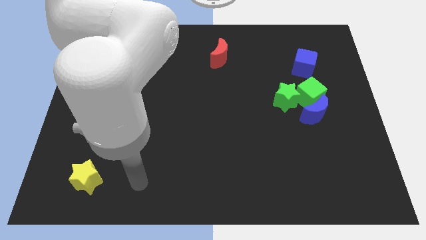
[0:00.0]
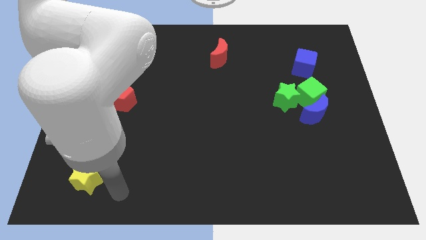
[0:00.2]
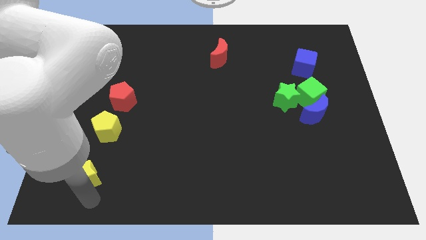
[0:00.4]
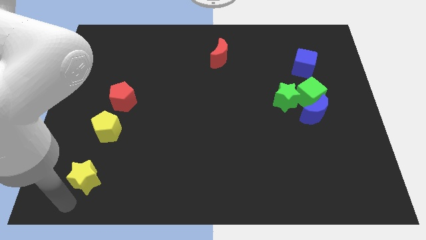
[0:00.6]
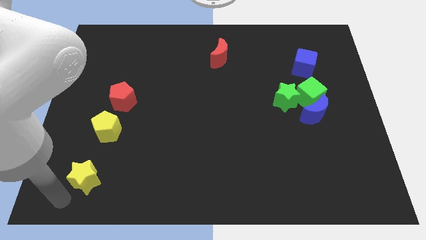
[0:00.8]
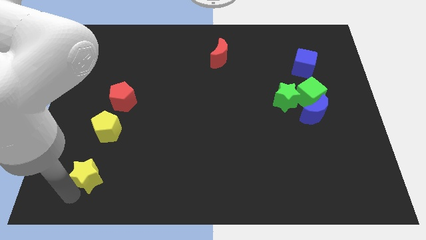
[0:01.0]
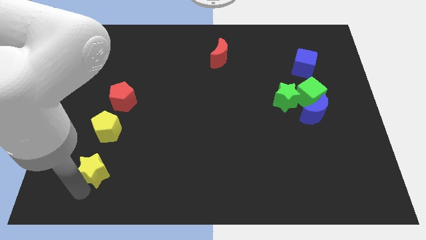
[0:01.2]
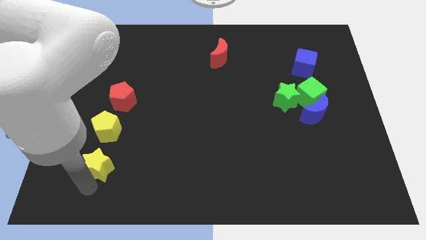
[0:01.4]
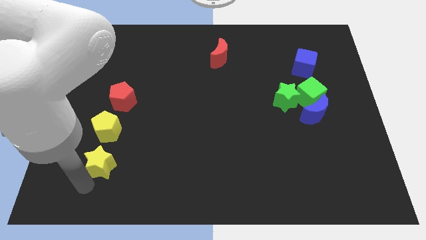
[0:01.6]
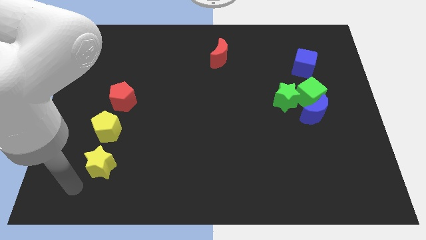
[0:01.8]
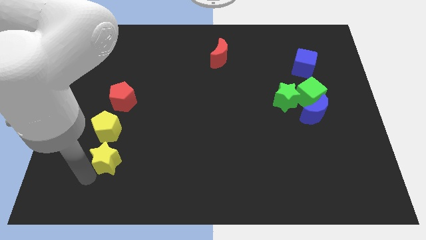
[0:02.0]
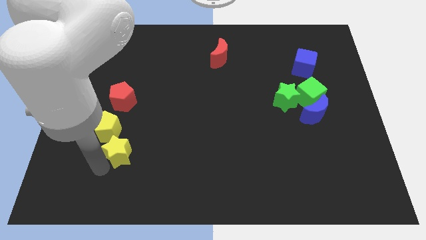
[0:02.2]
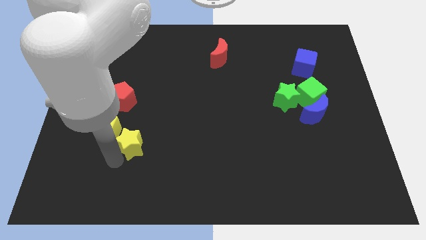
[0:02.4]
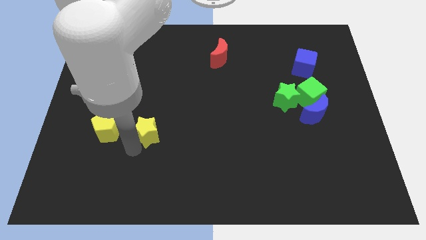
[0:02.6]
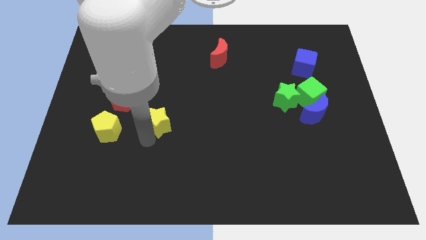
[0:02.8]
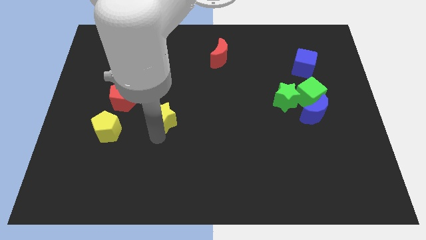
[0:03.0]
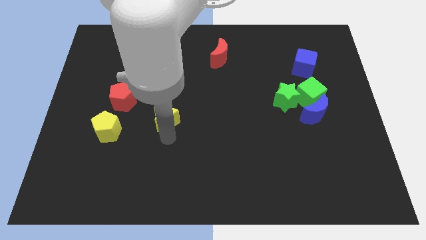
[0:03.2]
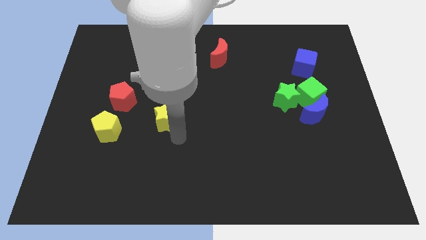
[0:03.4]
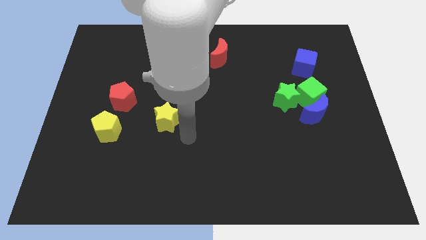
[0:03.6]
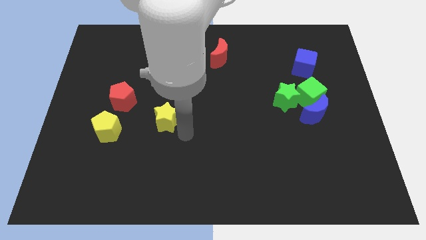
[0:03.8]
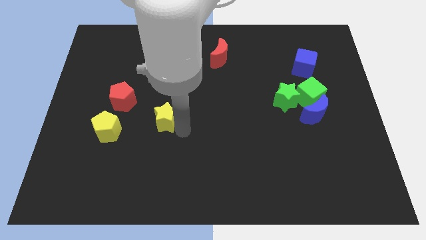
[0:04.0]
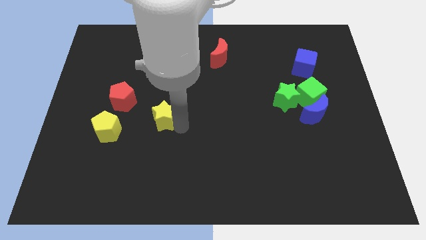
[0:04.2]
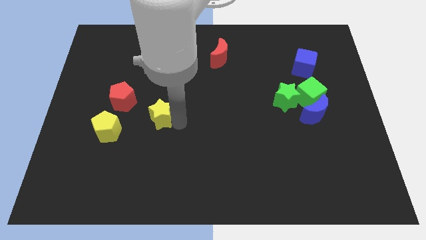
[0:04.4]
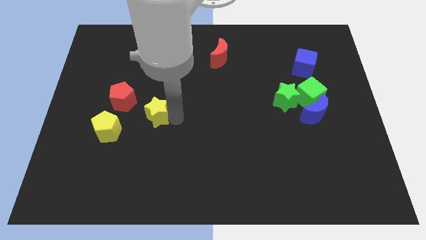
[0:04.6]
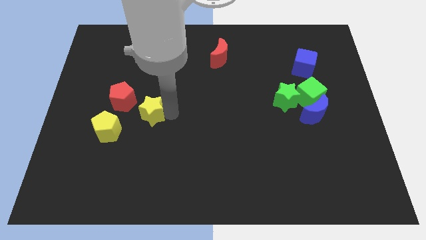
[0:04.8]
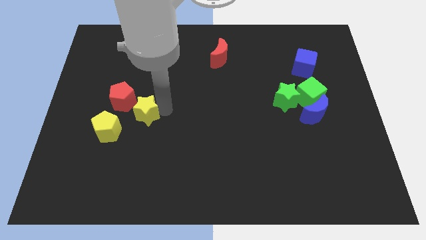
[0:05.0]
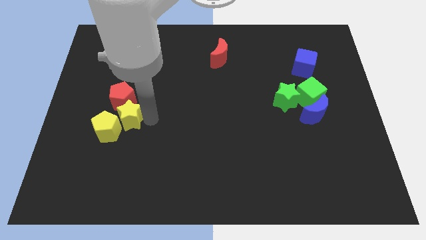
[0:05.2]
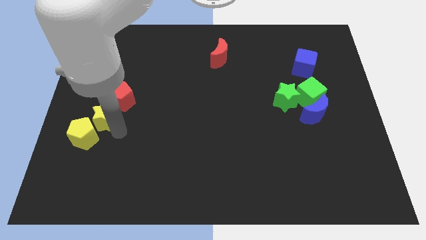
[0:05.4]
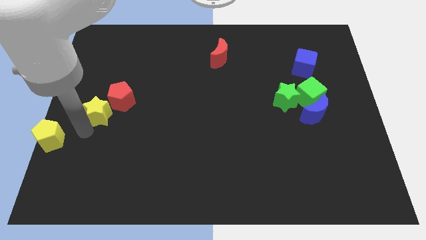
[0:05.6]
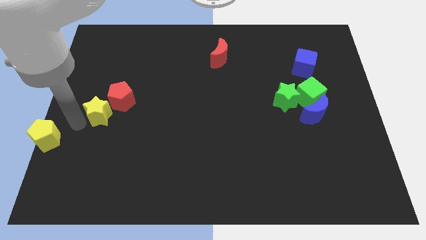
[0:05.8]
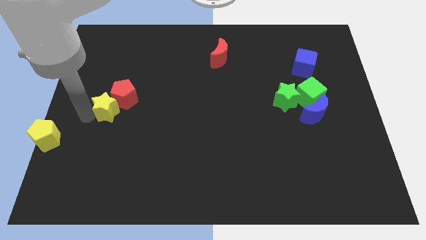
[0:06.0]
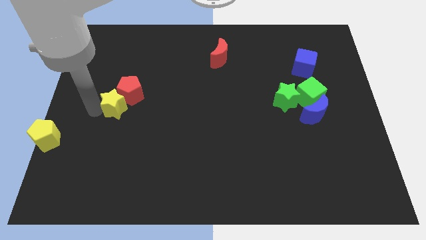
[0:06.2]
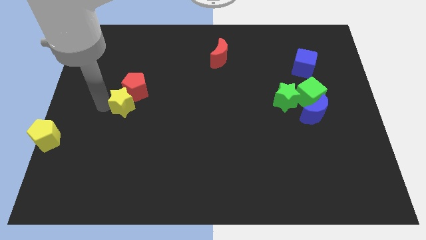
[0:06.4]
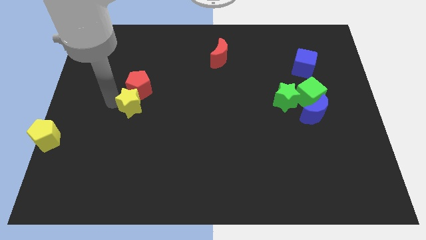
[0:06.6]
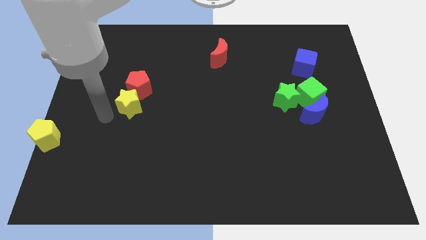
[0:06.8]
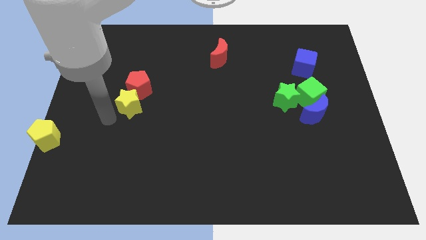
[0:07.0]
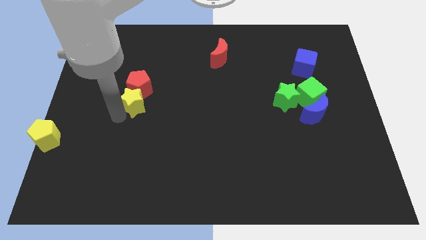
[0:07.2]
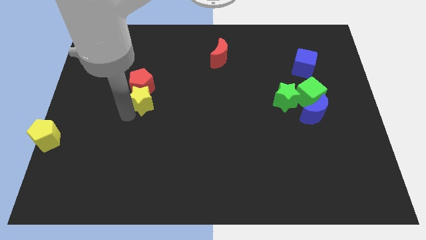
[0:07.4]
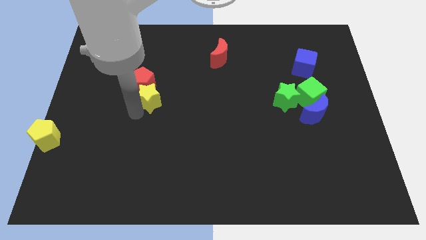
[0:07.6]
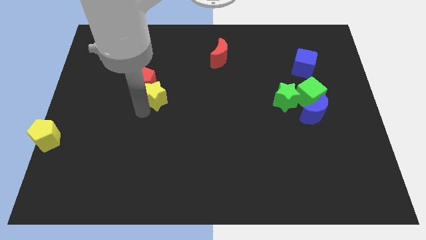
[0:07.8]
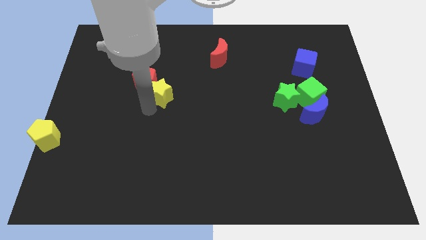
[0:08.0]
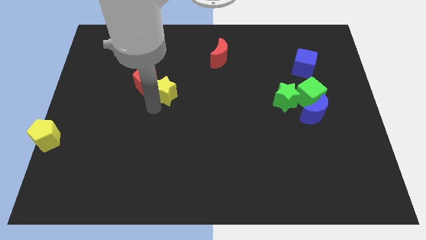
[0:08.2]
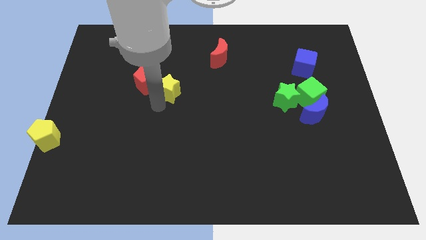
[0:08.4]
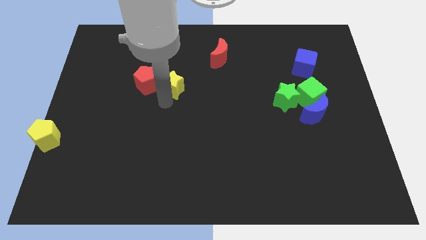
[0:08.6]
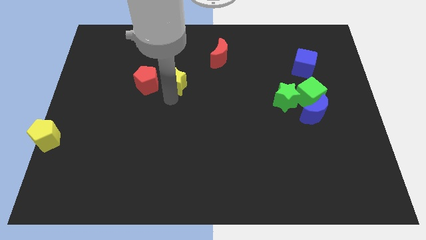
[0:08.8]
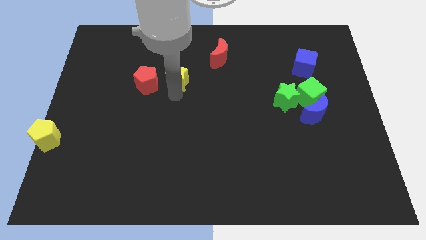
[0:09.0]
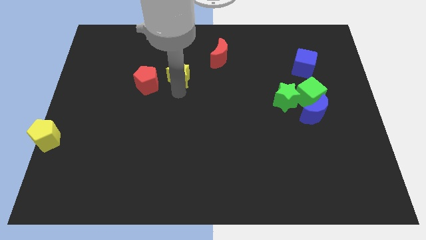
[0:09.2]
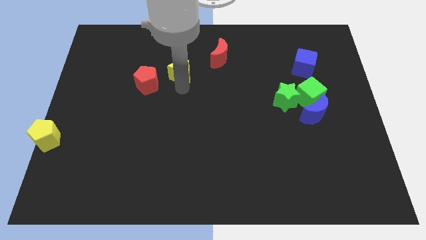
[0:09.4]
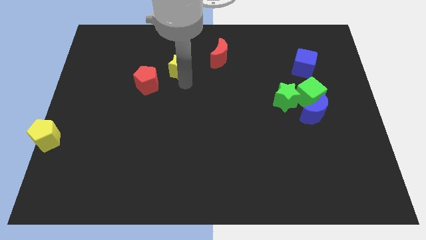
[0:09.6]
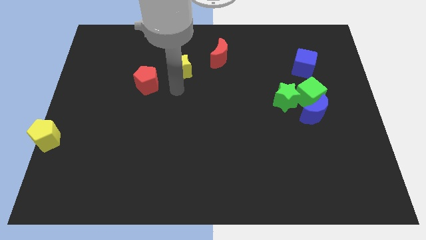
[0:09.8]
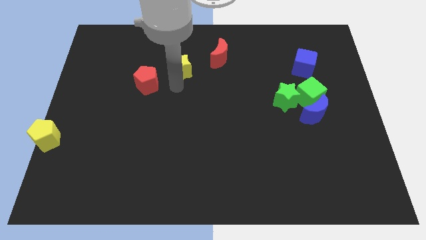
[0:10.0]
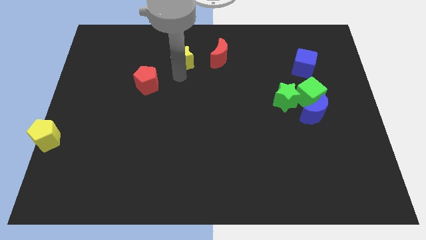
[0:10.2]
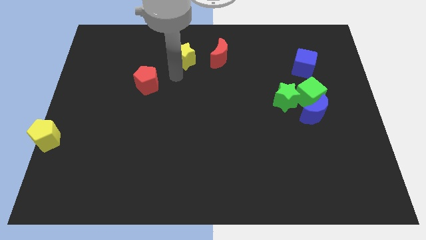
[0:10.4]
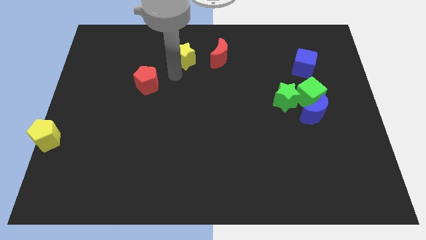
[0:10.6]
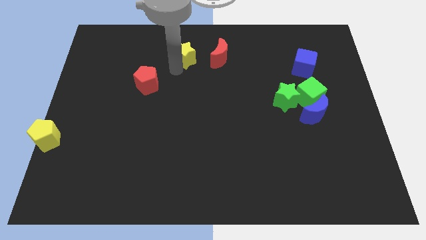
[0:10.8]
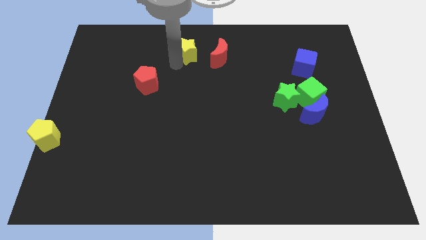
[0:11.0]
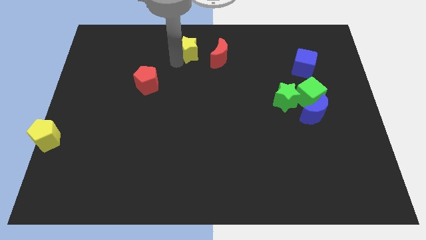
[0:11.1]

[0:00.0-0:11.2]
put the yellow star to the towards your base
